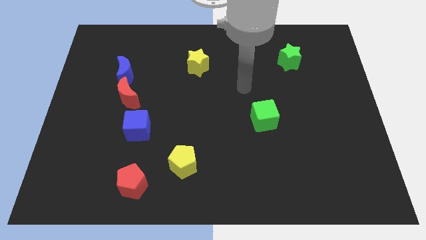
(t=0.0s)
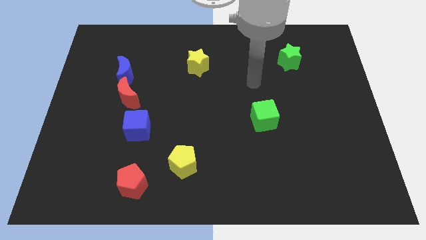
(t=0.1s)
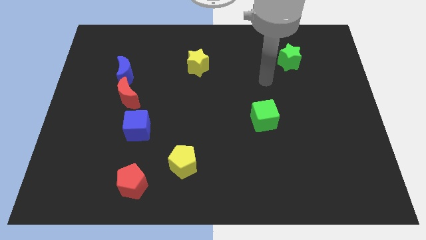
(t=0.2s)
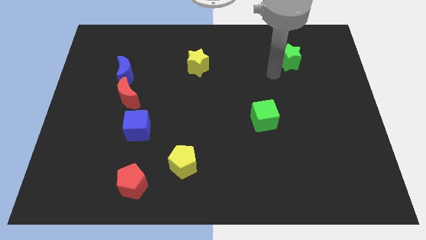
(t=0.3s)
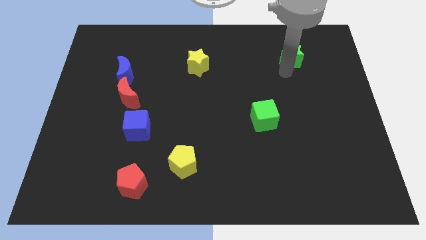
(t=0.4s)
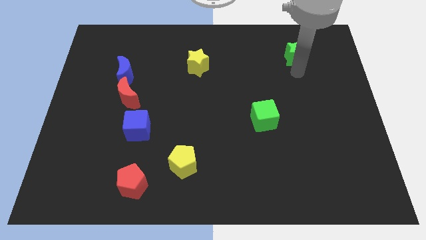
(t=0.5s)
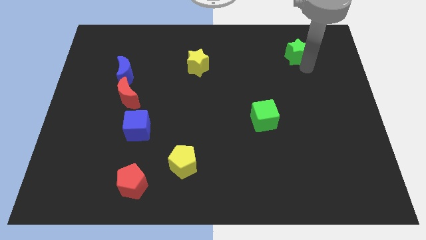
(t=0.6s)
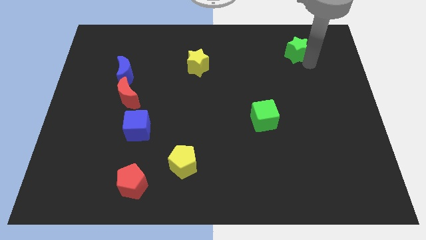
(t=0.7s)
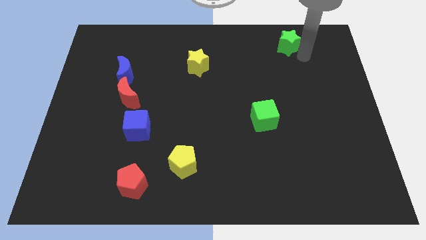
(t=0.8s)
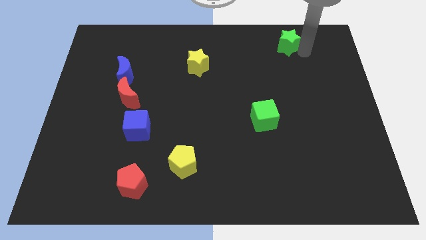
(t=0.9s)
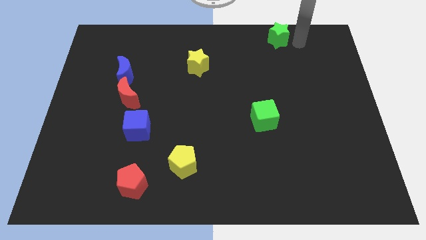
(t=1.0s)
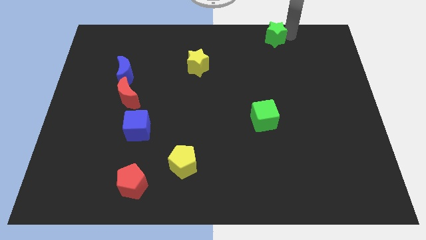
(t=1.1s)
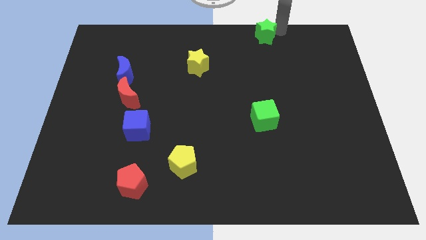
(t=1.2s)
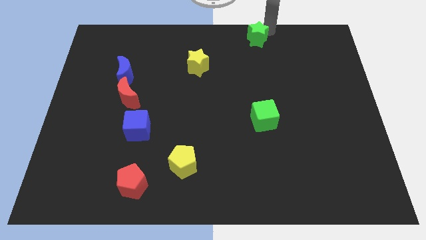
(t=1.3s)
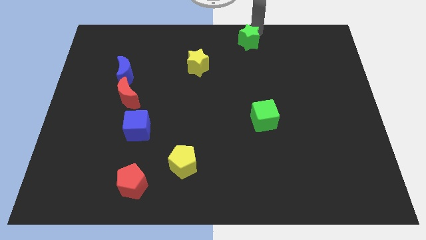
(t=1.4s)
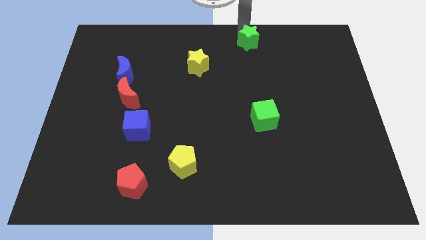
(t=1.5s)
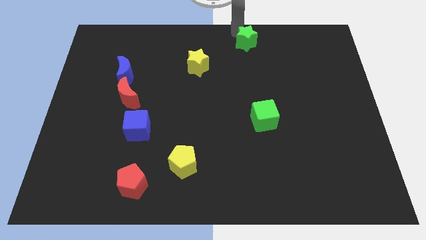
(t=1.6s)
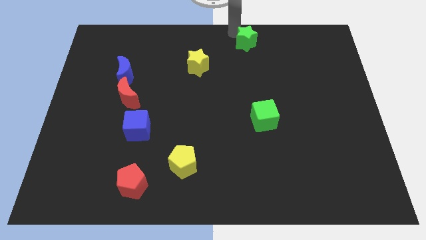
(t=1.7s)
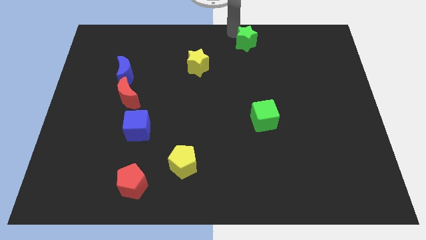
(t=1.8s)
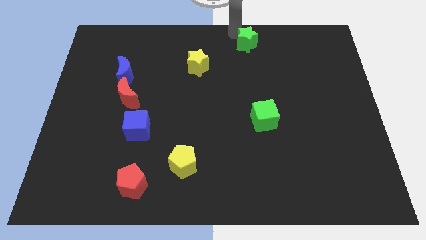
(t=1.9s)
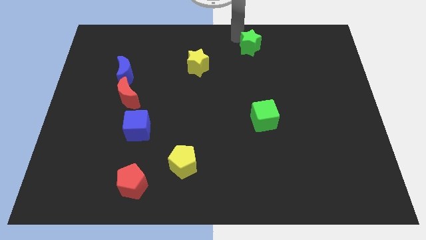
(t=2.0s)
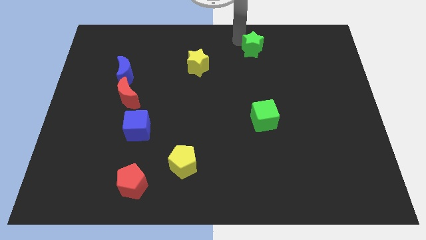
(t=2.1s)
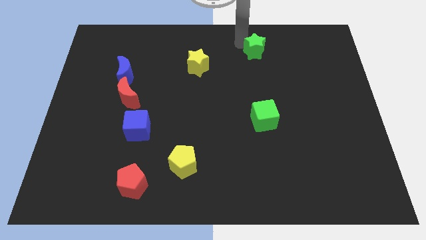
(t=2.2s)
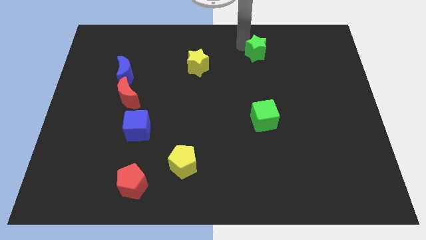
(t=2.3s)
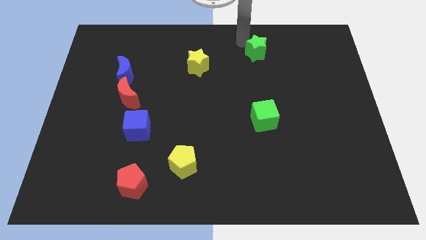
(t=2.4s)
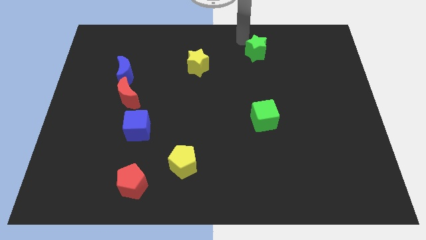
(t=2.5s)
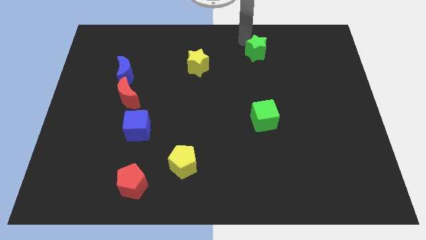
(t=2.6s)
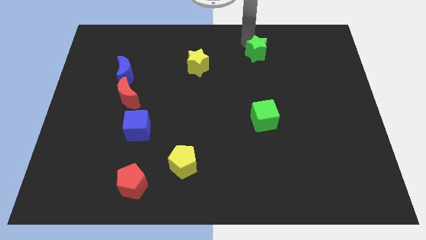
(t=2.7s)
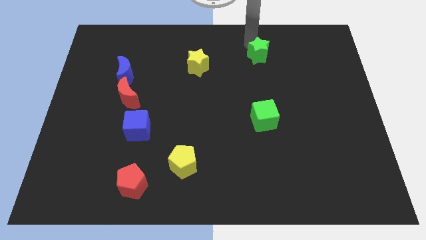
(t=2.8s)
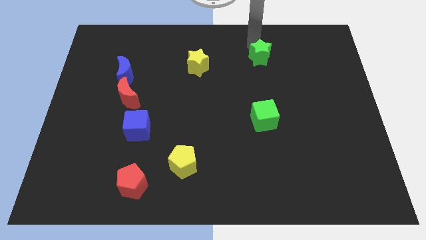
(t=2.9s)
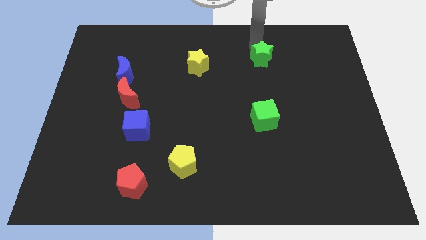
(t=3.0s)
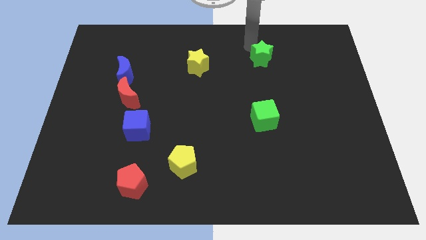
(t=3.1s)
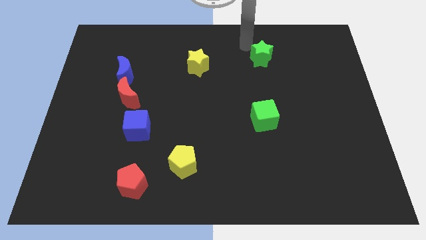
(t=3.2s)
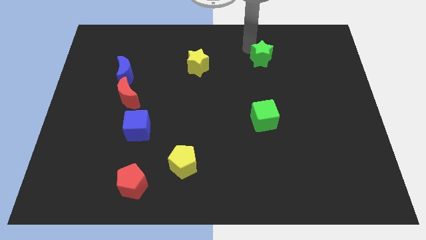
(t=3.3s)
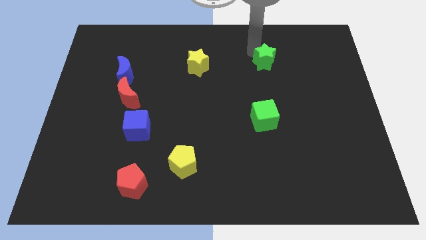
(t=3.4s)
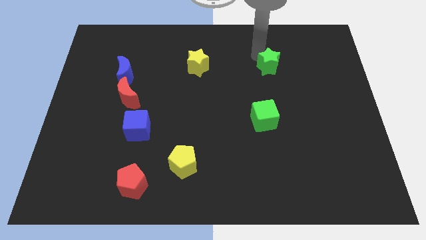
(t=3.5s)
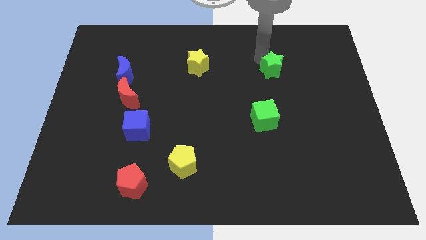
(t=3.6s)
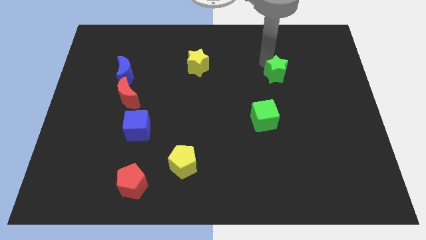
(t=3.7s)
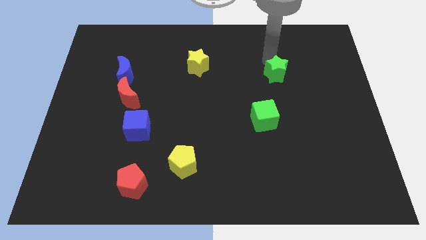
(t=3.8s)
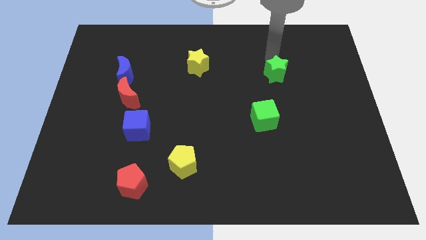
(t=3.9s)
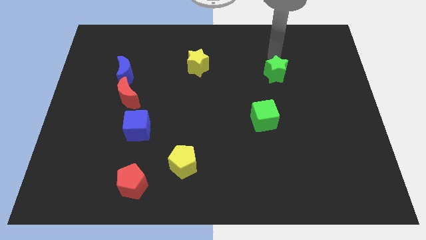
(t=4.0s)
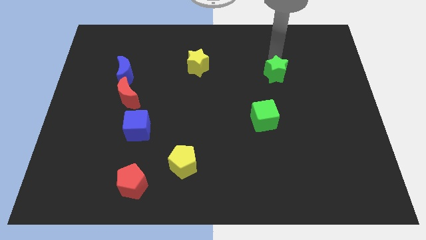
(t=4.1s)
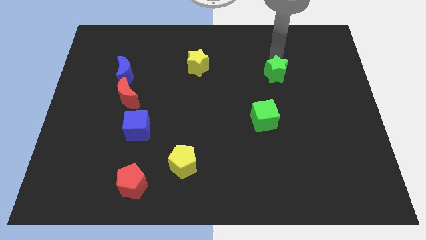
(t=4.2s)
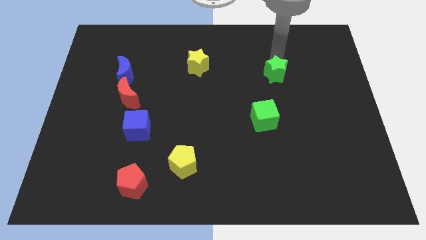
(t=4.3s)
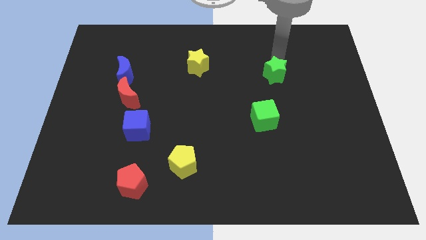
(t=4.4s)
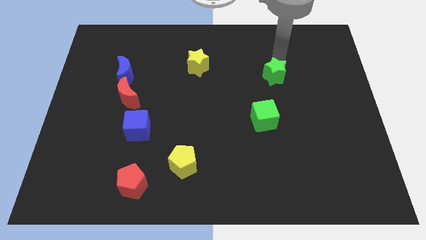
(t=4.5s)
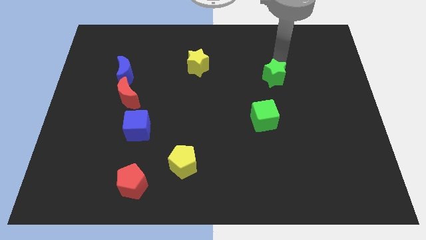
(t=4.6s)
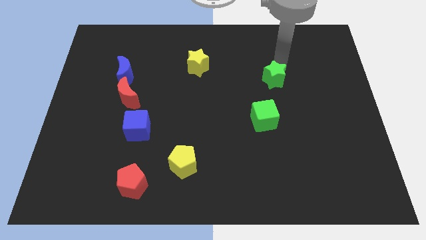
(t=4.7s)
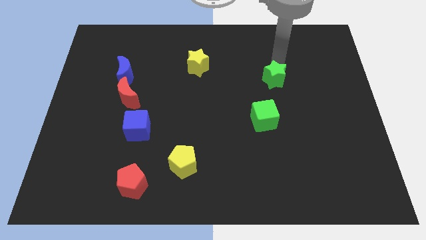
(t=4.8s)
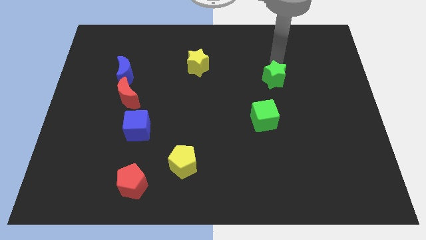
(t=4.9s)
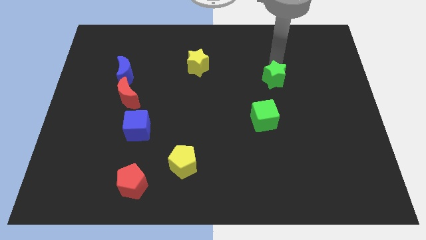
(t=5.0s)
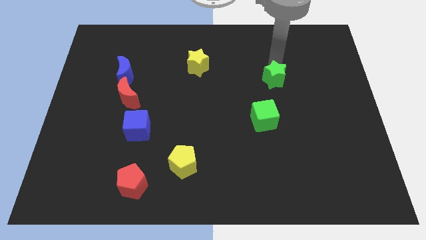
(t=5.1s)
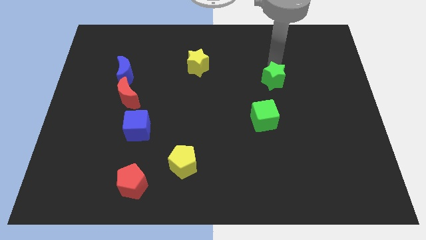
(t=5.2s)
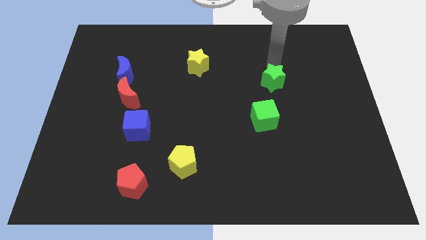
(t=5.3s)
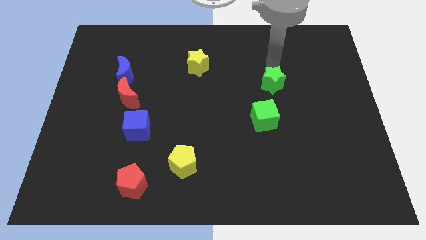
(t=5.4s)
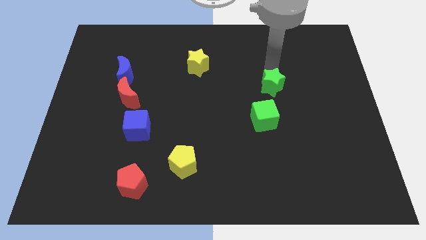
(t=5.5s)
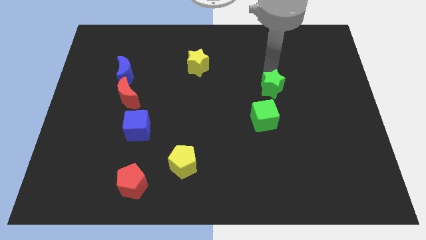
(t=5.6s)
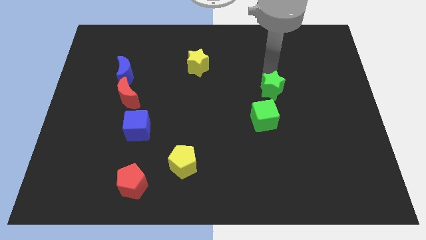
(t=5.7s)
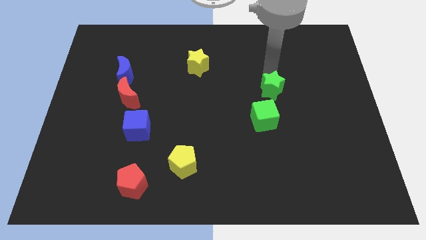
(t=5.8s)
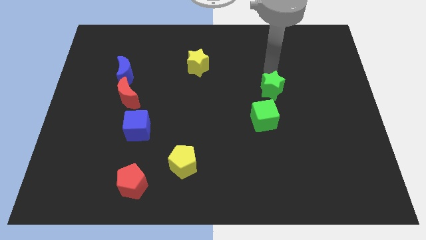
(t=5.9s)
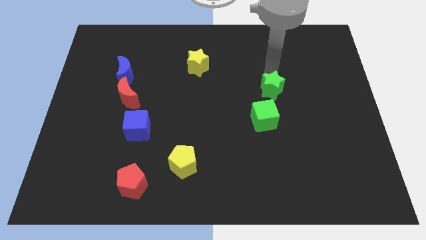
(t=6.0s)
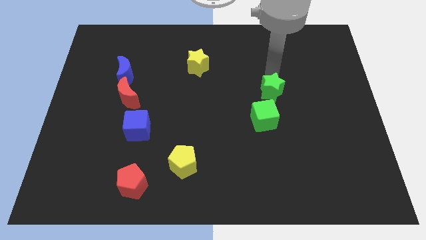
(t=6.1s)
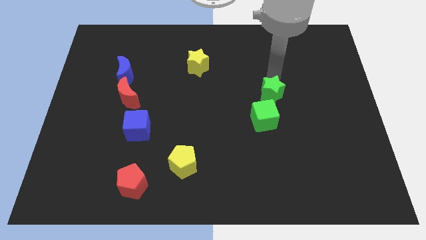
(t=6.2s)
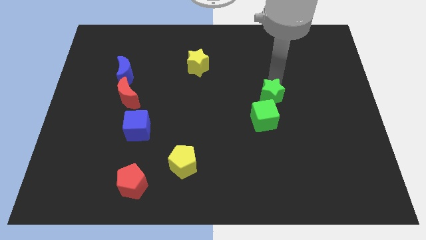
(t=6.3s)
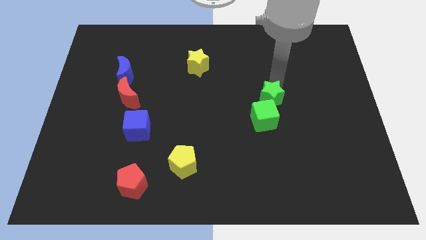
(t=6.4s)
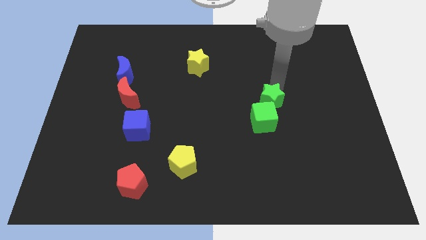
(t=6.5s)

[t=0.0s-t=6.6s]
put the green star towards the green cube

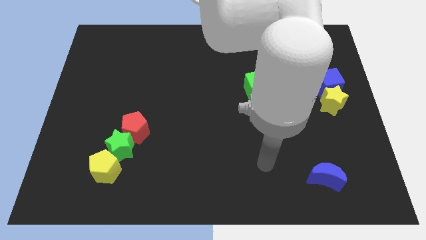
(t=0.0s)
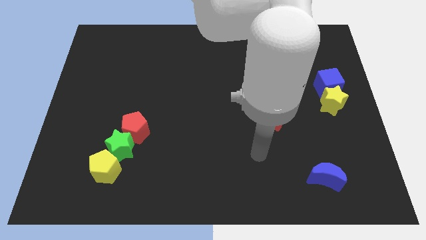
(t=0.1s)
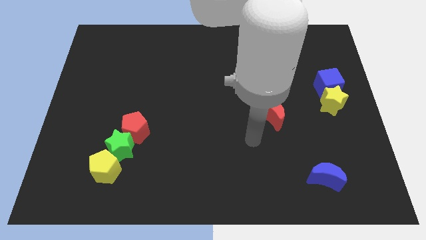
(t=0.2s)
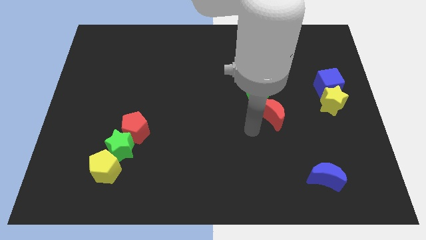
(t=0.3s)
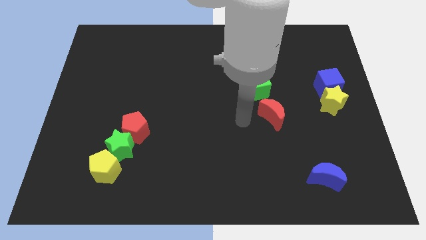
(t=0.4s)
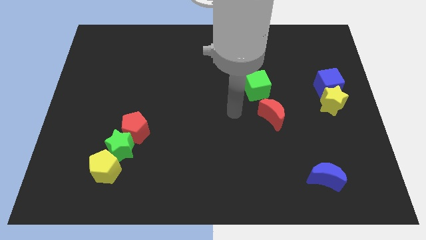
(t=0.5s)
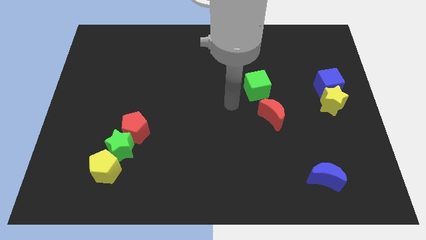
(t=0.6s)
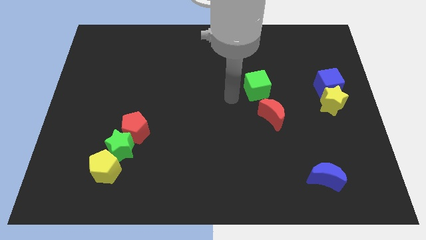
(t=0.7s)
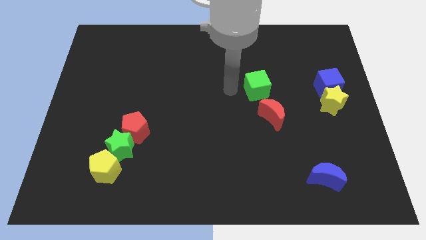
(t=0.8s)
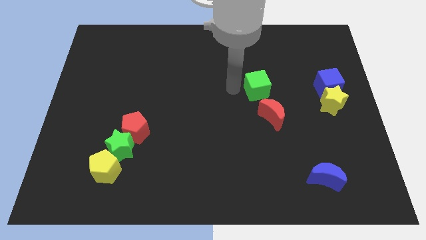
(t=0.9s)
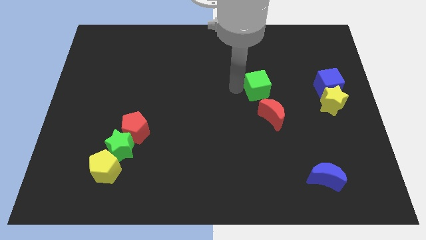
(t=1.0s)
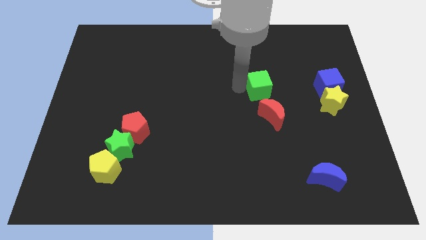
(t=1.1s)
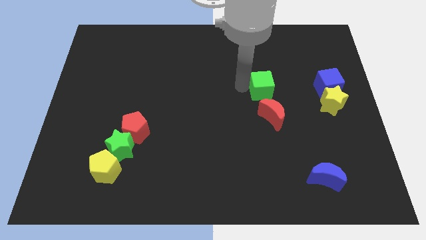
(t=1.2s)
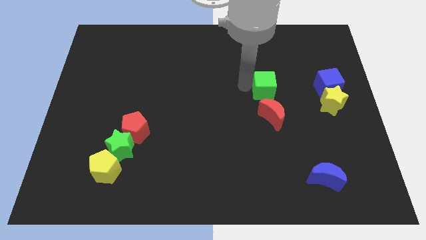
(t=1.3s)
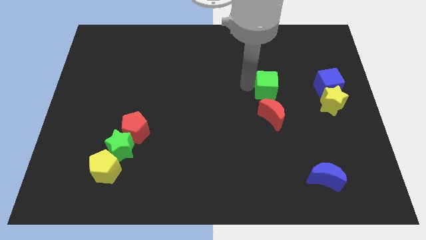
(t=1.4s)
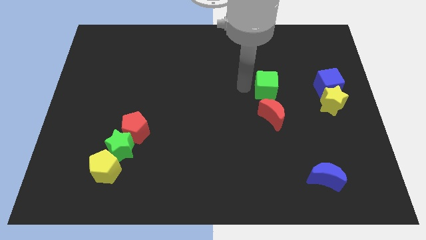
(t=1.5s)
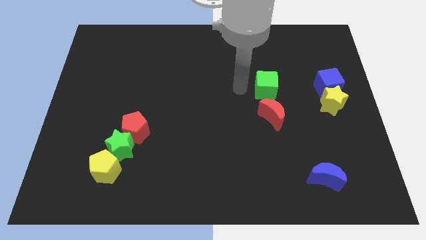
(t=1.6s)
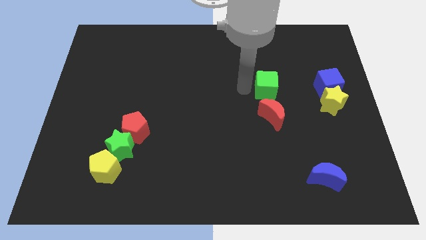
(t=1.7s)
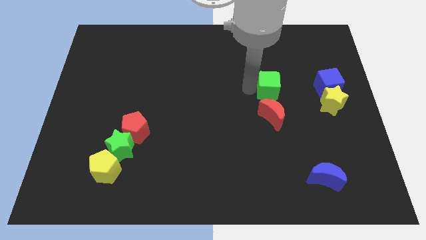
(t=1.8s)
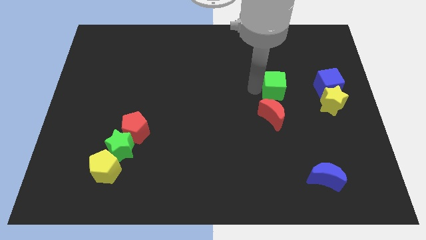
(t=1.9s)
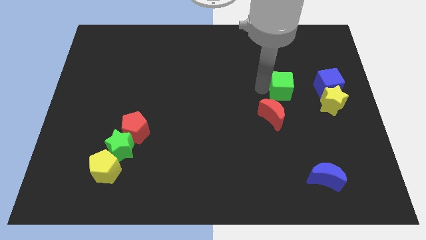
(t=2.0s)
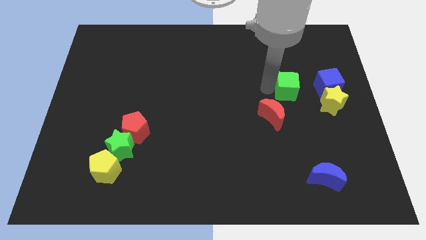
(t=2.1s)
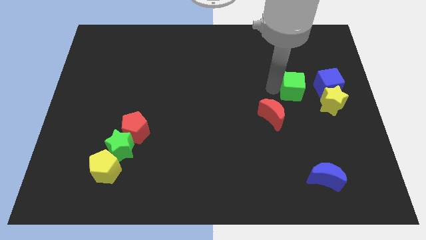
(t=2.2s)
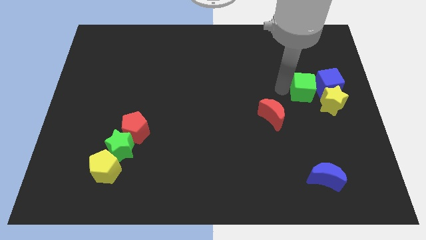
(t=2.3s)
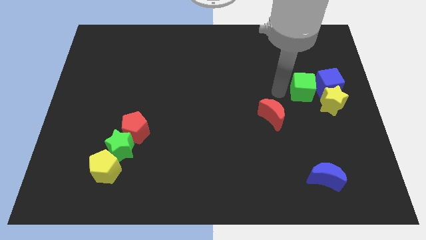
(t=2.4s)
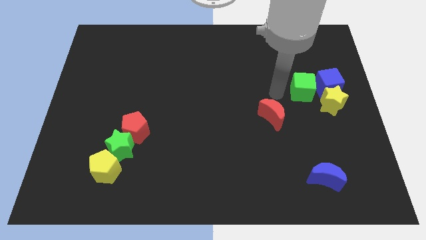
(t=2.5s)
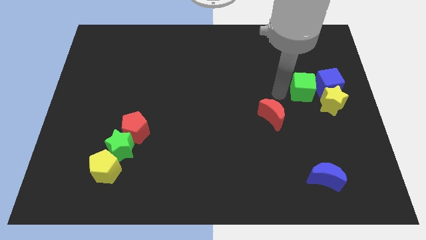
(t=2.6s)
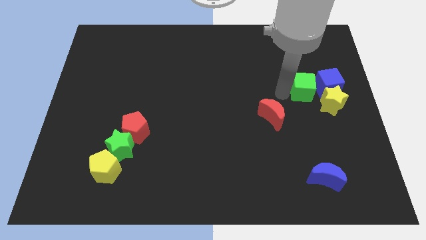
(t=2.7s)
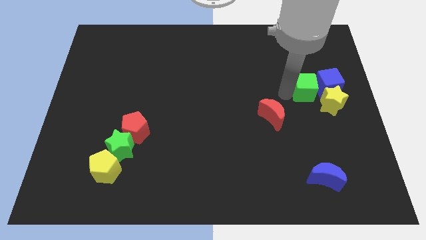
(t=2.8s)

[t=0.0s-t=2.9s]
slide the green cube close to the blue cube
